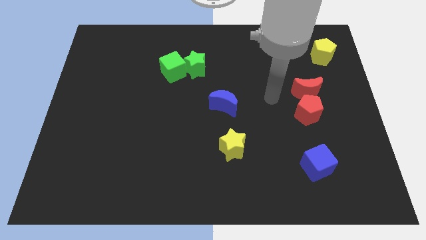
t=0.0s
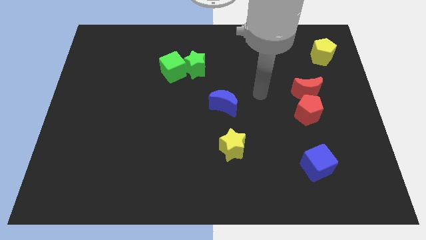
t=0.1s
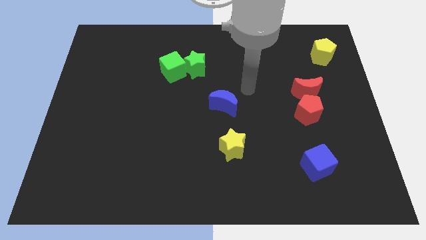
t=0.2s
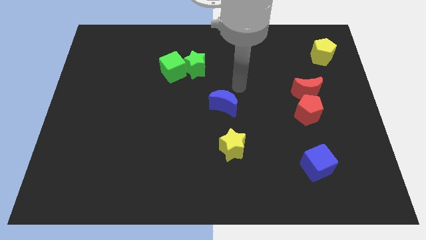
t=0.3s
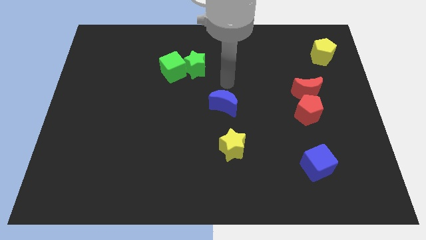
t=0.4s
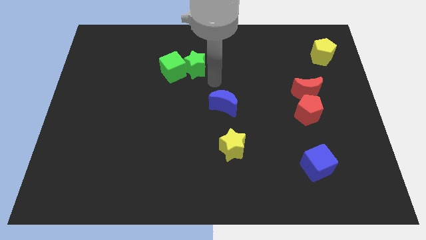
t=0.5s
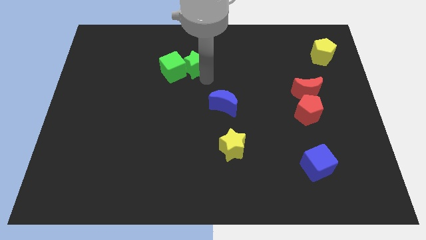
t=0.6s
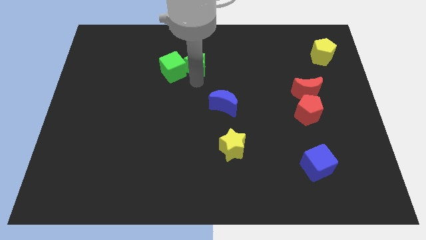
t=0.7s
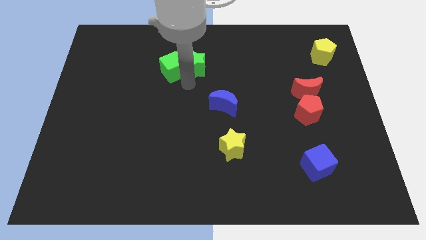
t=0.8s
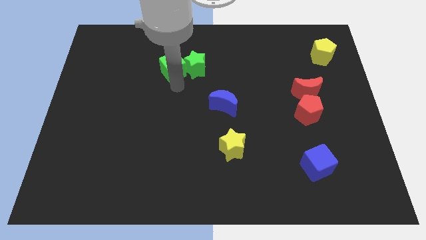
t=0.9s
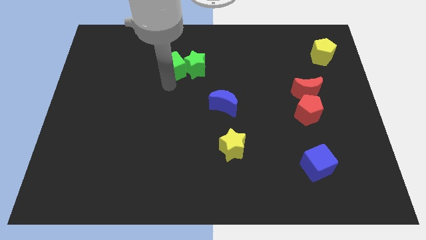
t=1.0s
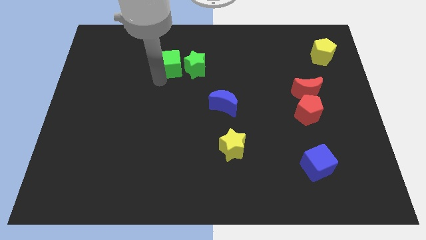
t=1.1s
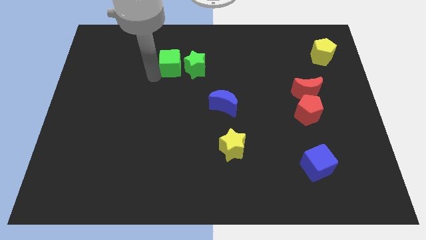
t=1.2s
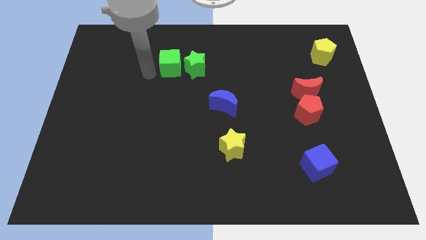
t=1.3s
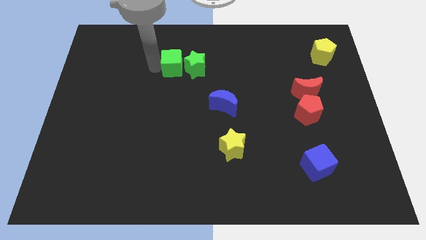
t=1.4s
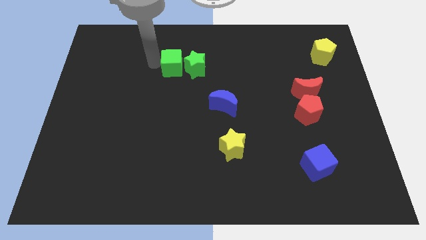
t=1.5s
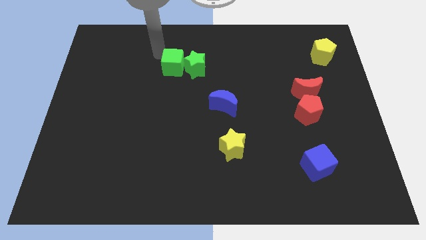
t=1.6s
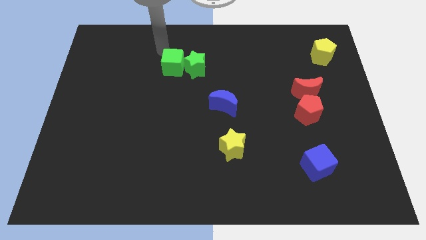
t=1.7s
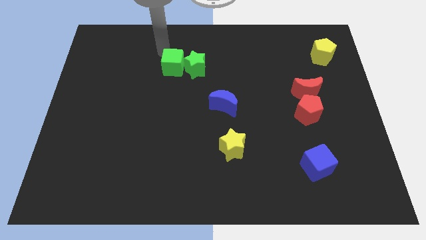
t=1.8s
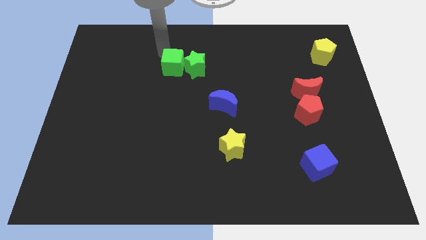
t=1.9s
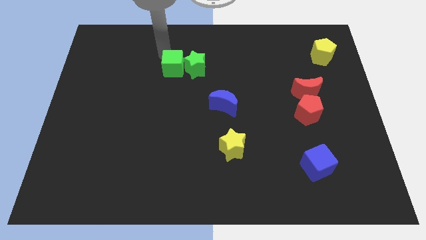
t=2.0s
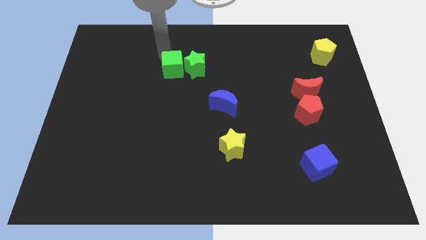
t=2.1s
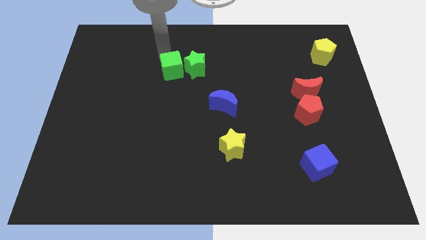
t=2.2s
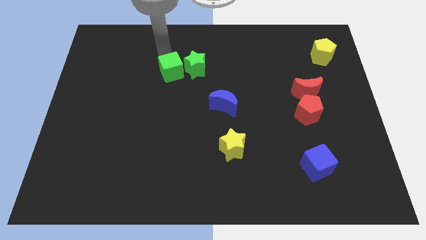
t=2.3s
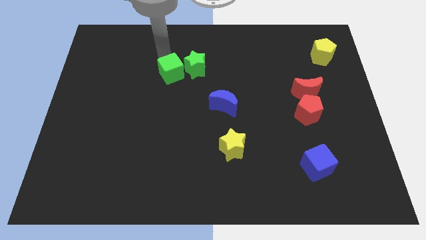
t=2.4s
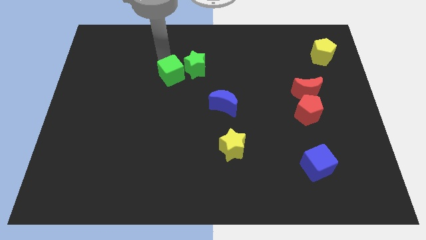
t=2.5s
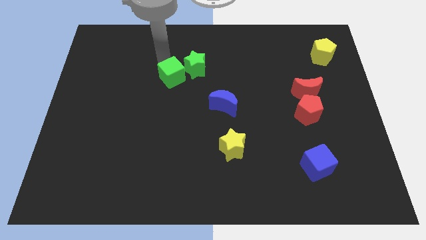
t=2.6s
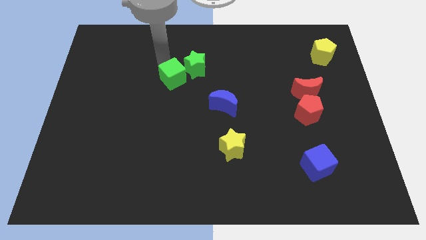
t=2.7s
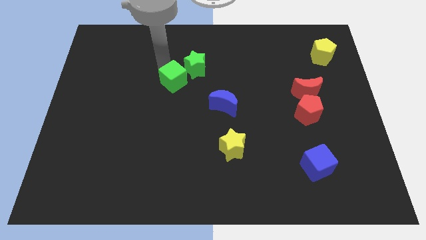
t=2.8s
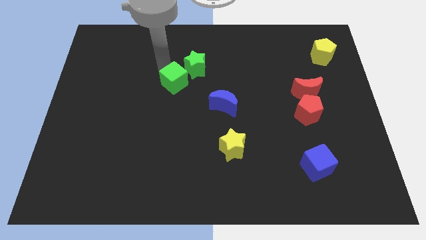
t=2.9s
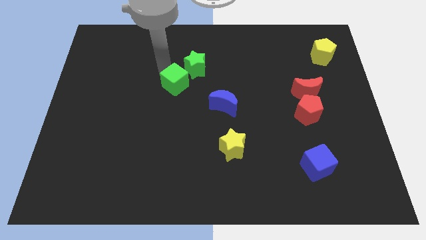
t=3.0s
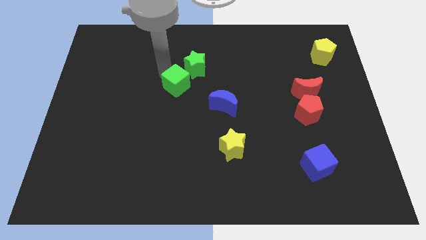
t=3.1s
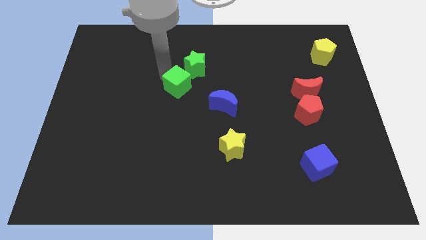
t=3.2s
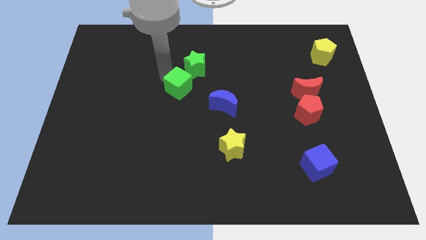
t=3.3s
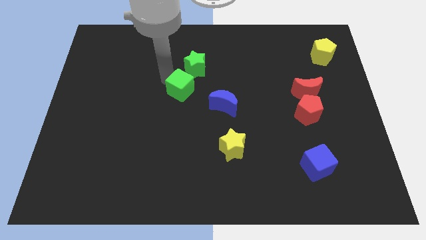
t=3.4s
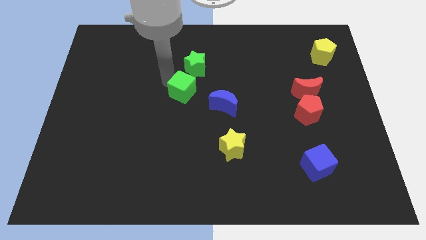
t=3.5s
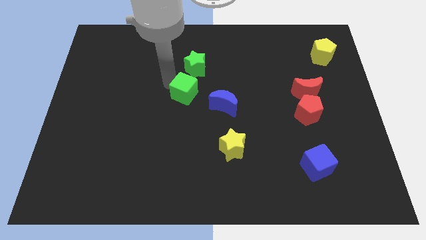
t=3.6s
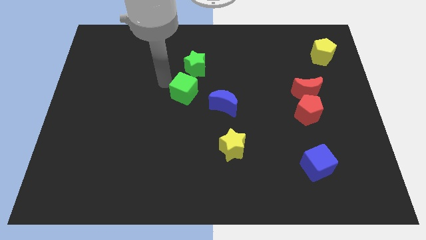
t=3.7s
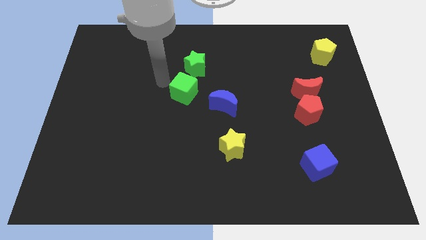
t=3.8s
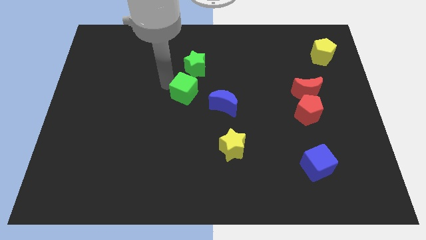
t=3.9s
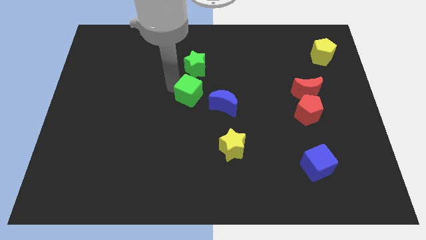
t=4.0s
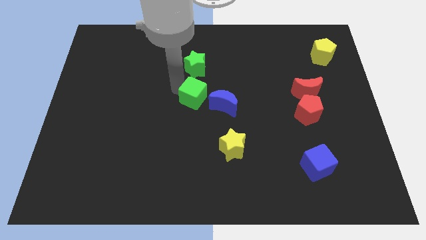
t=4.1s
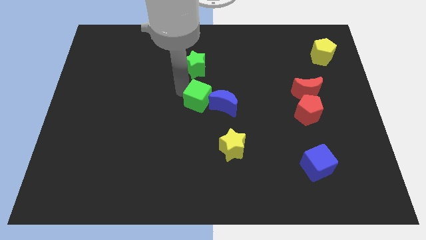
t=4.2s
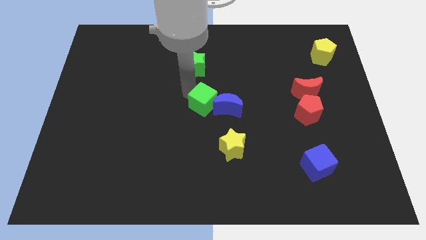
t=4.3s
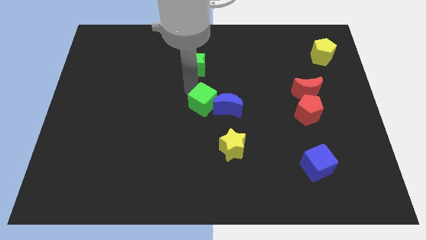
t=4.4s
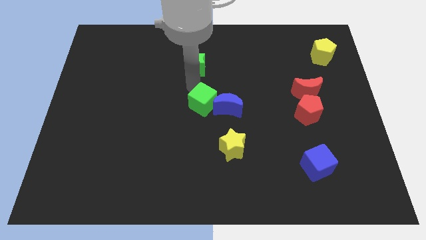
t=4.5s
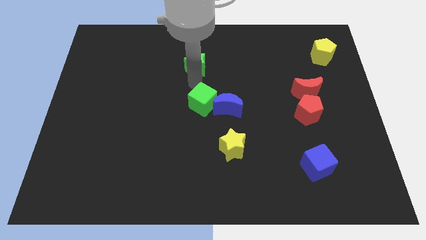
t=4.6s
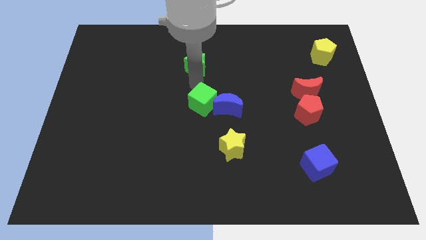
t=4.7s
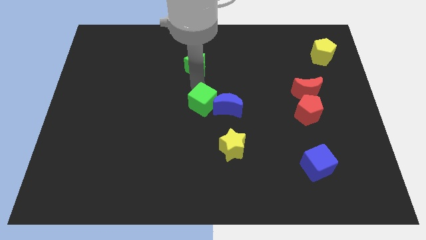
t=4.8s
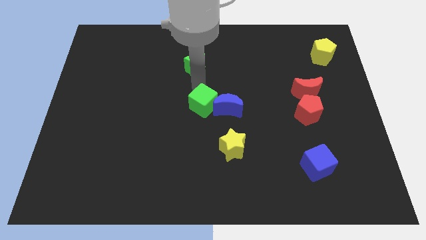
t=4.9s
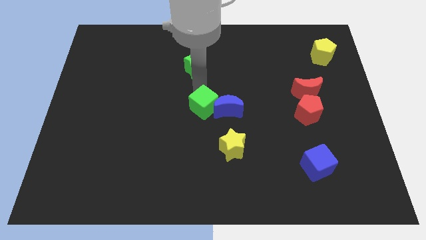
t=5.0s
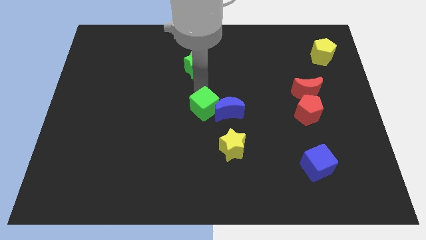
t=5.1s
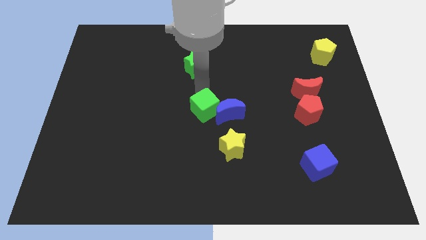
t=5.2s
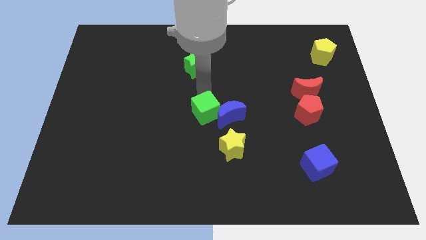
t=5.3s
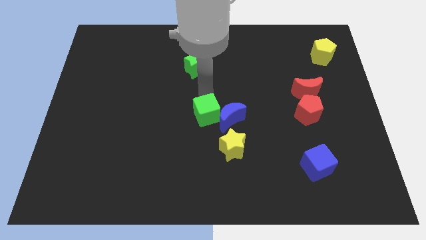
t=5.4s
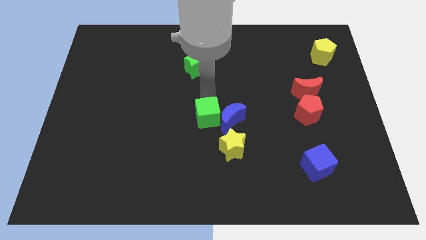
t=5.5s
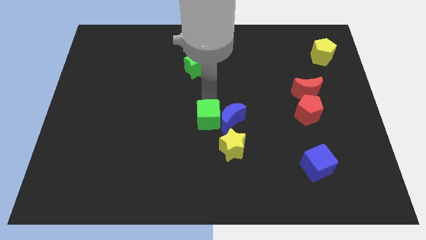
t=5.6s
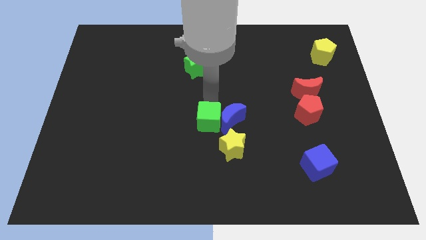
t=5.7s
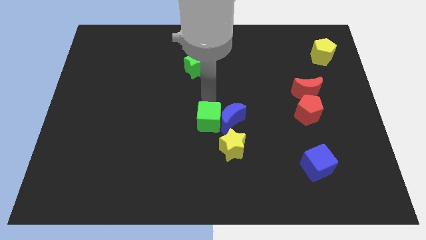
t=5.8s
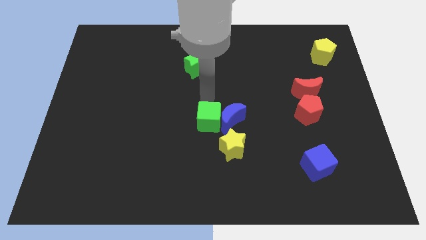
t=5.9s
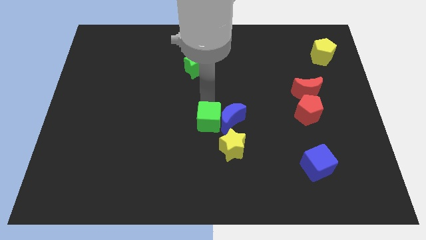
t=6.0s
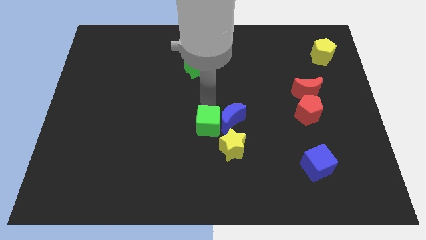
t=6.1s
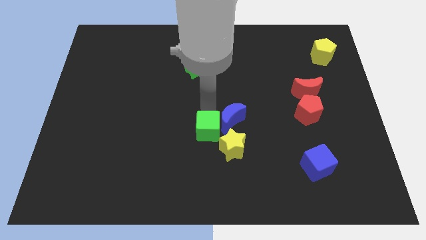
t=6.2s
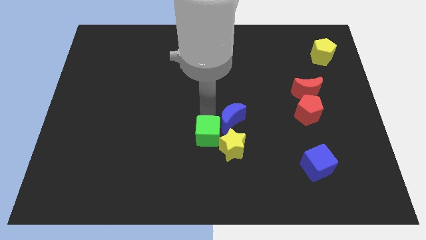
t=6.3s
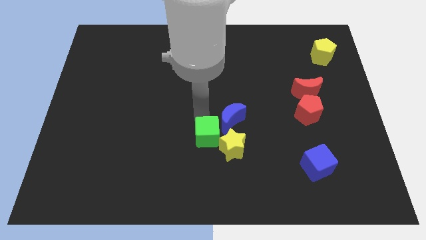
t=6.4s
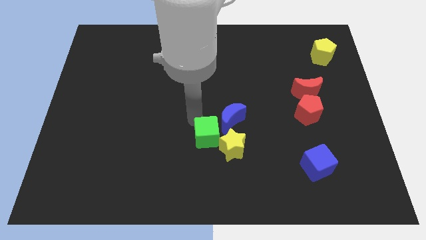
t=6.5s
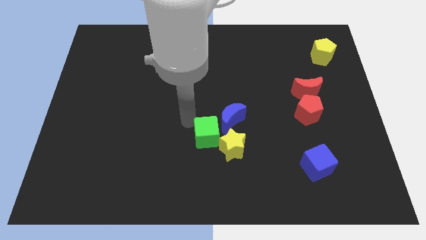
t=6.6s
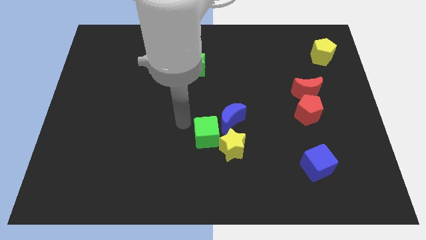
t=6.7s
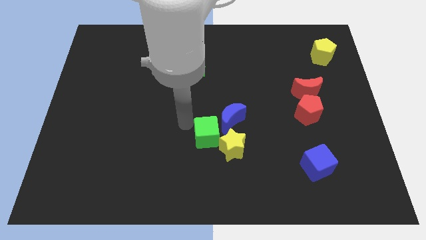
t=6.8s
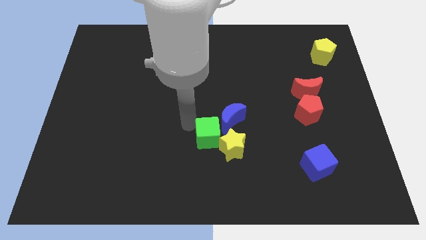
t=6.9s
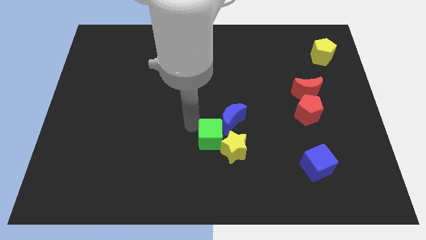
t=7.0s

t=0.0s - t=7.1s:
push the green cube towards the yellow star
